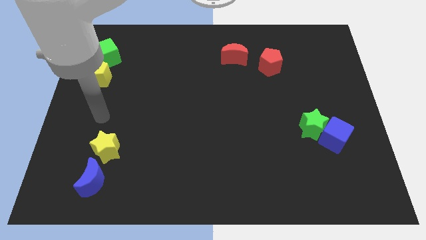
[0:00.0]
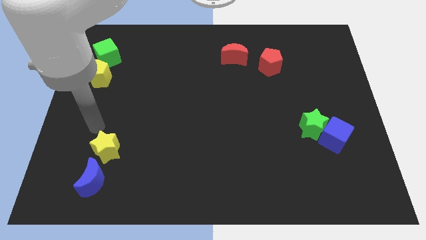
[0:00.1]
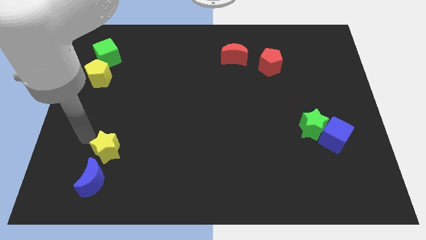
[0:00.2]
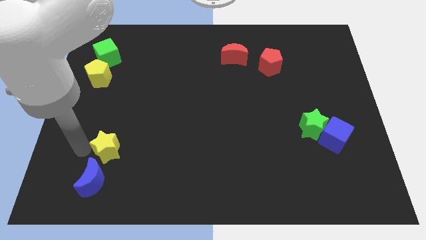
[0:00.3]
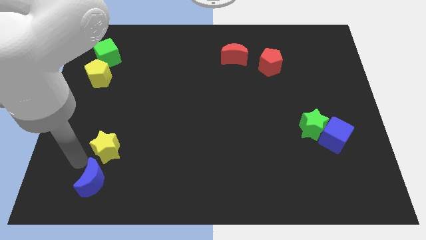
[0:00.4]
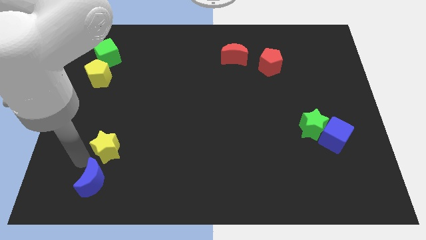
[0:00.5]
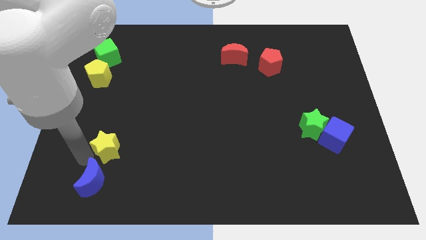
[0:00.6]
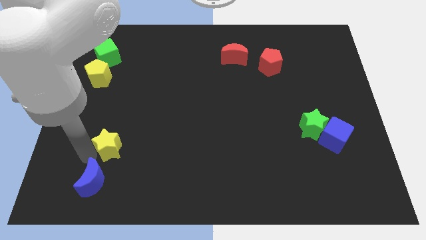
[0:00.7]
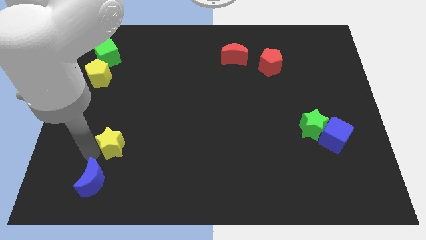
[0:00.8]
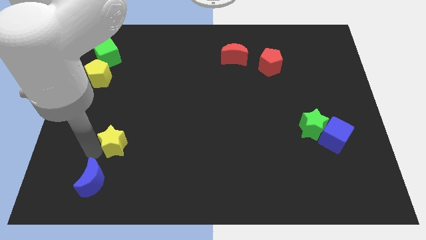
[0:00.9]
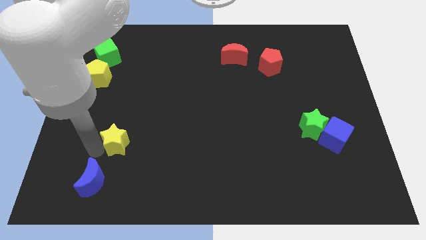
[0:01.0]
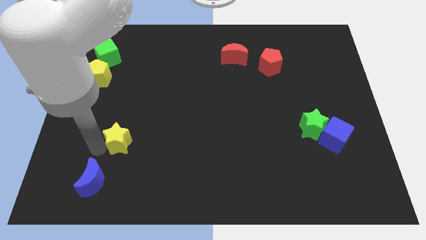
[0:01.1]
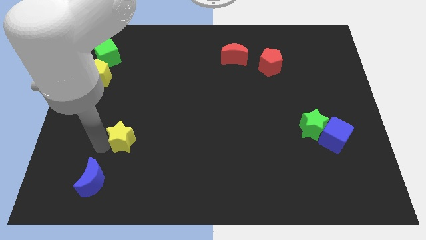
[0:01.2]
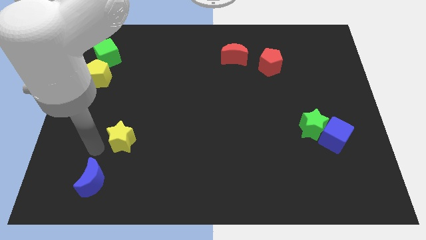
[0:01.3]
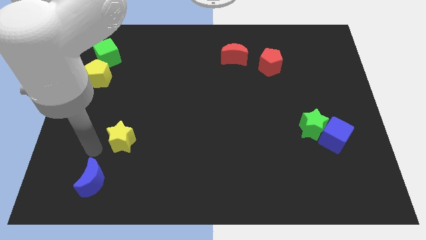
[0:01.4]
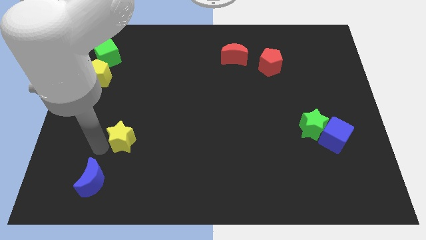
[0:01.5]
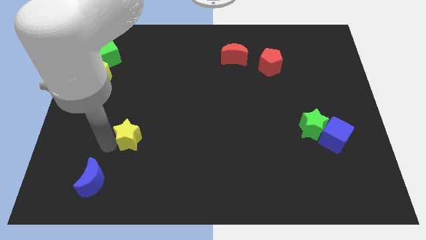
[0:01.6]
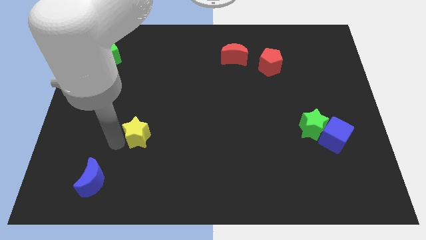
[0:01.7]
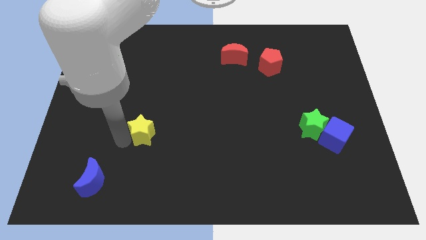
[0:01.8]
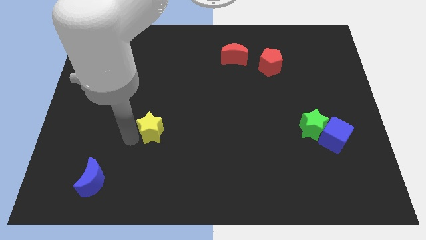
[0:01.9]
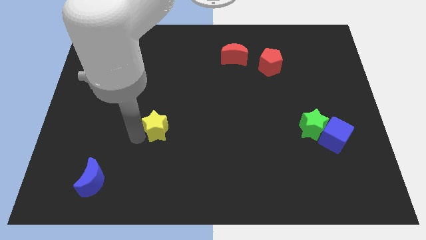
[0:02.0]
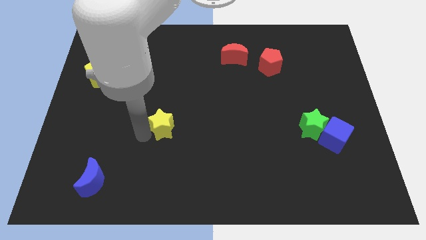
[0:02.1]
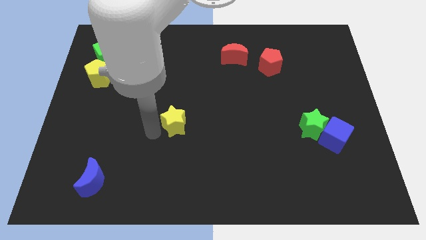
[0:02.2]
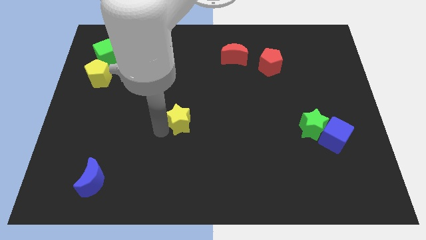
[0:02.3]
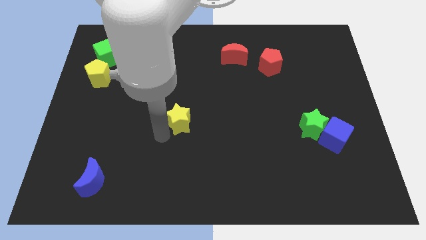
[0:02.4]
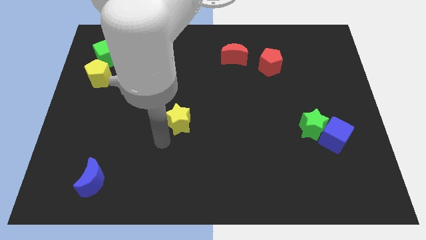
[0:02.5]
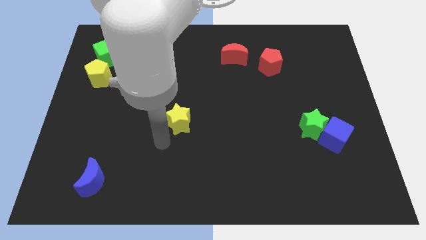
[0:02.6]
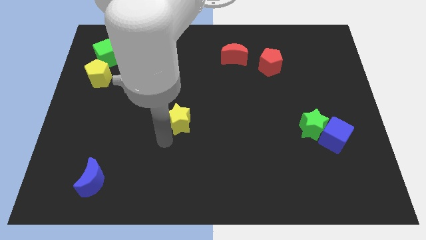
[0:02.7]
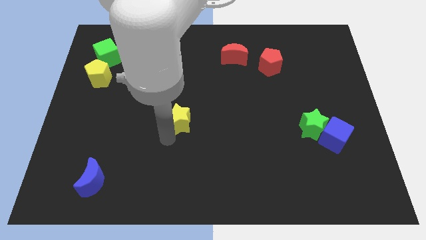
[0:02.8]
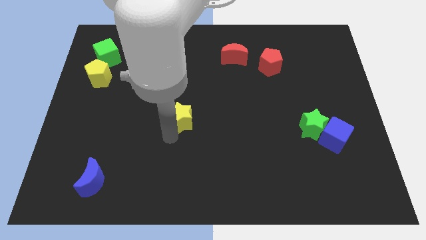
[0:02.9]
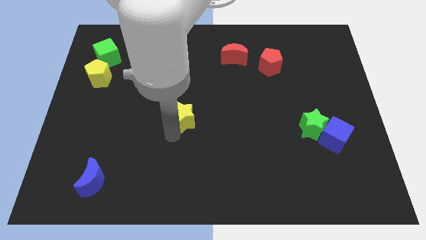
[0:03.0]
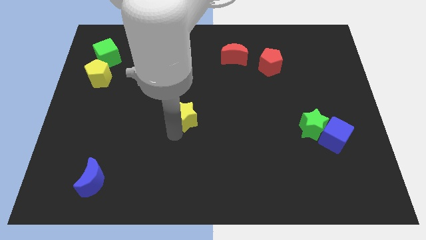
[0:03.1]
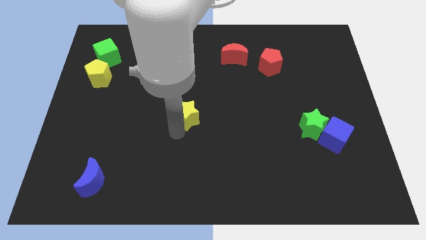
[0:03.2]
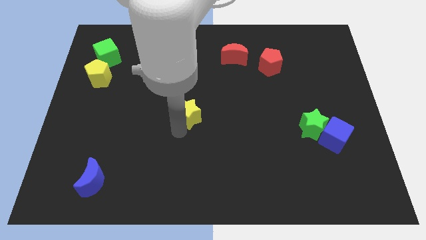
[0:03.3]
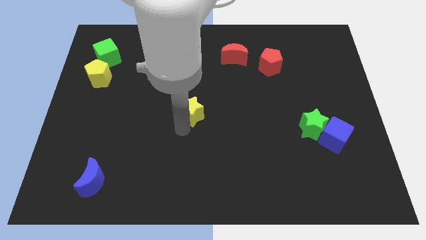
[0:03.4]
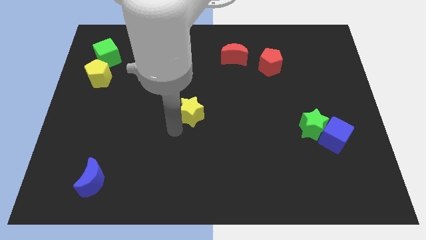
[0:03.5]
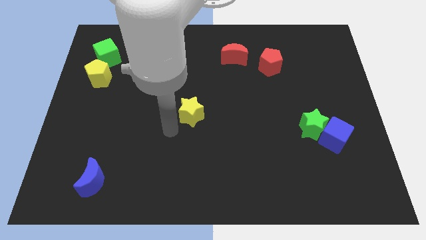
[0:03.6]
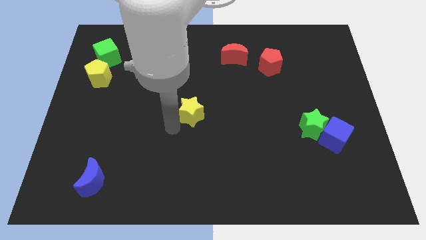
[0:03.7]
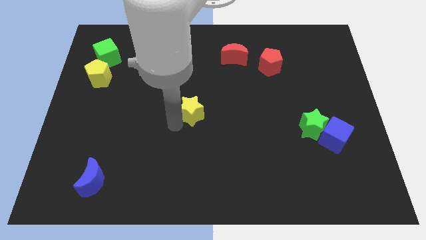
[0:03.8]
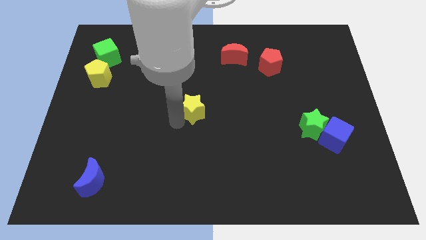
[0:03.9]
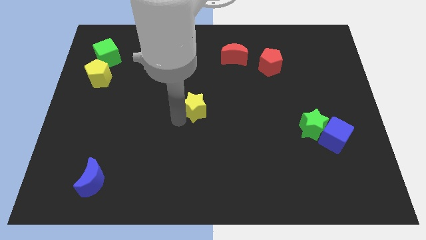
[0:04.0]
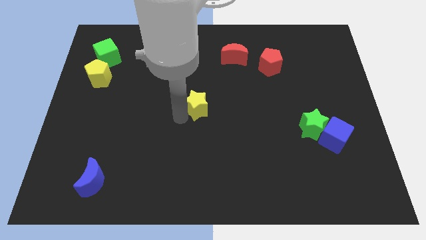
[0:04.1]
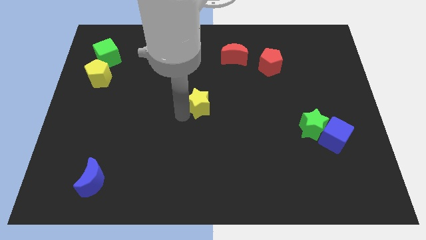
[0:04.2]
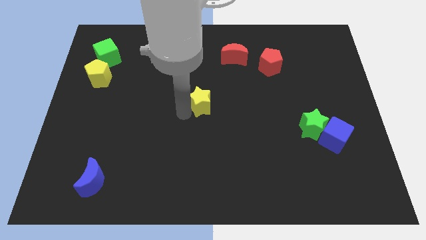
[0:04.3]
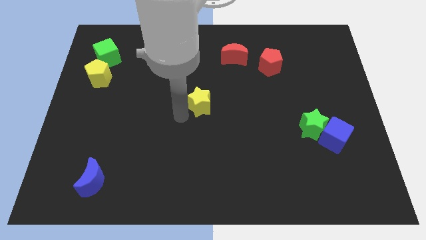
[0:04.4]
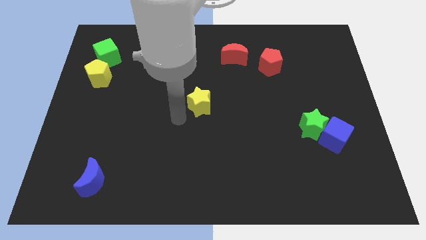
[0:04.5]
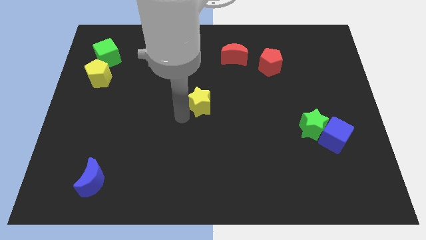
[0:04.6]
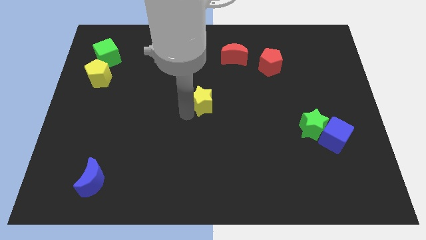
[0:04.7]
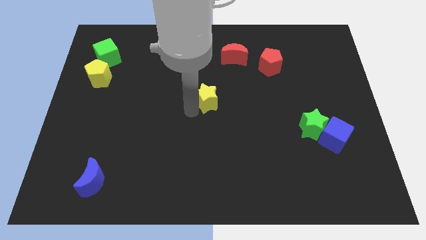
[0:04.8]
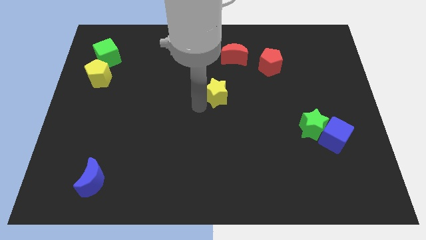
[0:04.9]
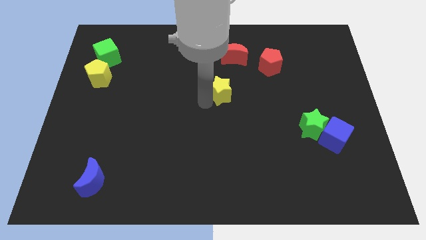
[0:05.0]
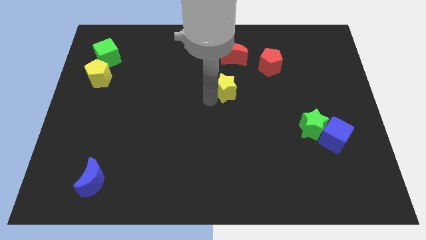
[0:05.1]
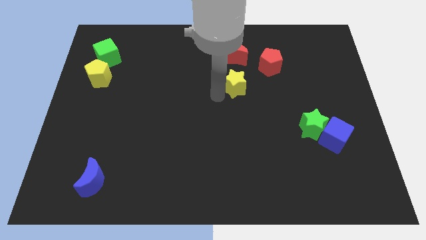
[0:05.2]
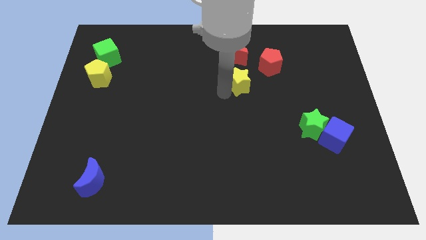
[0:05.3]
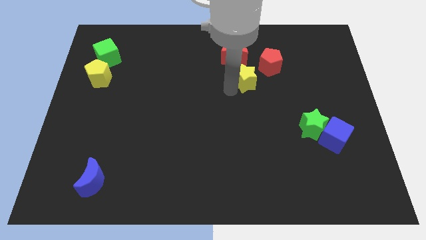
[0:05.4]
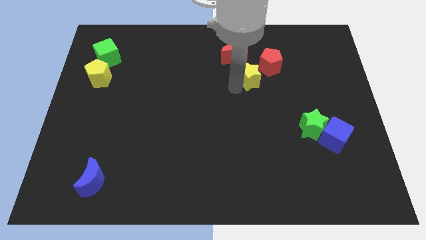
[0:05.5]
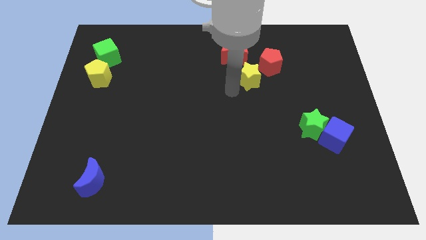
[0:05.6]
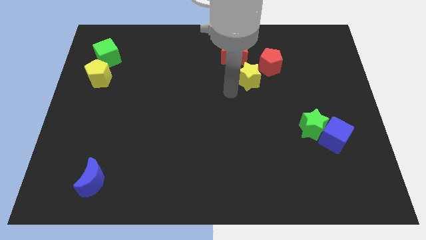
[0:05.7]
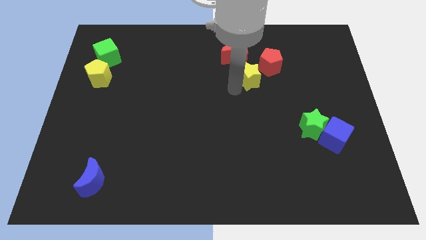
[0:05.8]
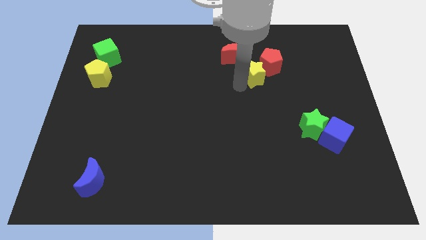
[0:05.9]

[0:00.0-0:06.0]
slide the yellow star close to the red pentagon

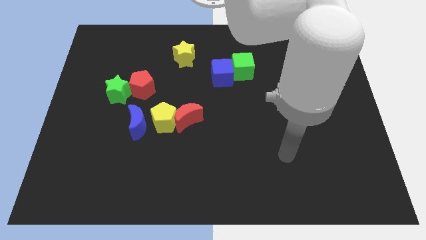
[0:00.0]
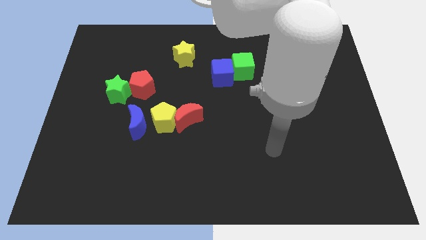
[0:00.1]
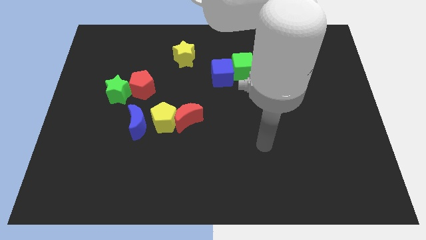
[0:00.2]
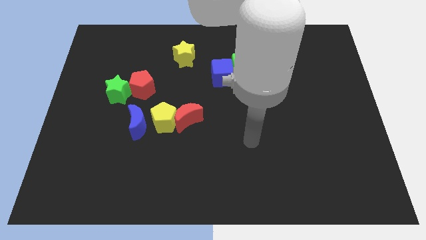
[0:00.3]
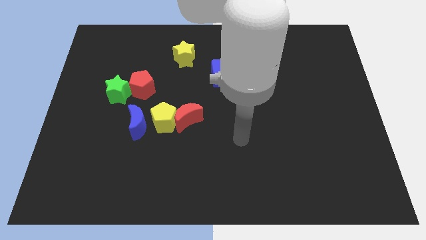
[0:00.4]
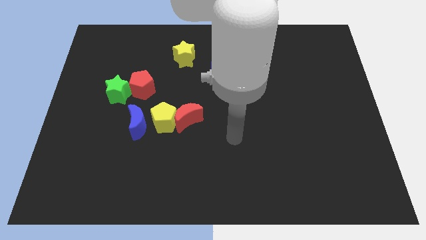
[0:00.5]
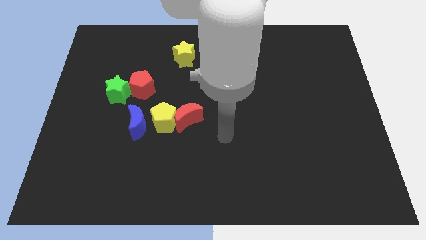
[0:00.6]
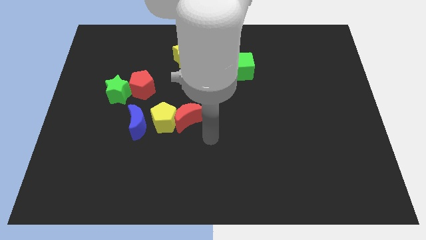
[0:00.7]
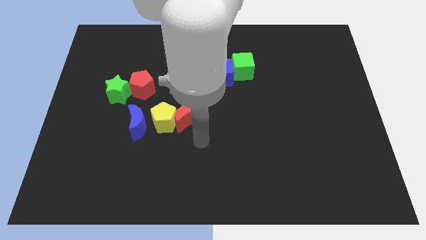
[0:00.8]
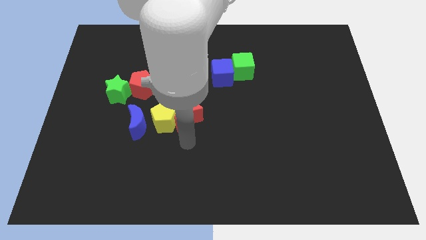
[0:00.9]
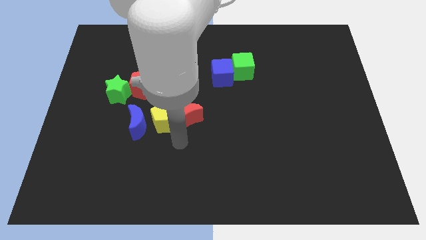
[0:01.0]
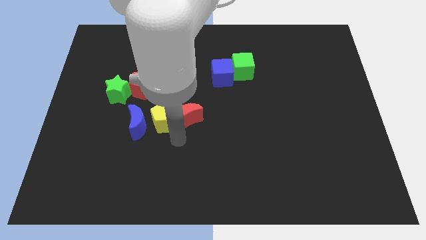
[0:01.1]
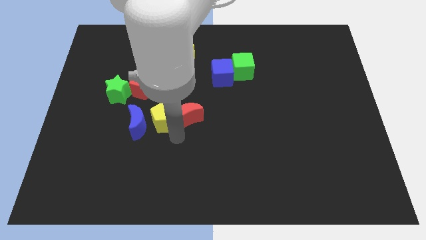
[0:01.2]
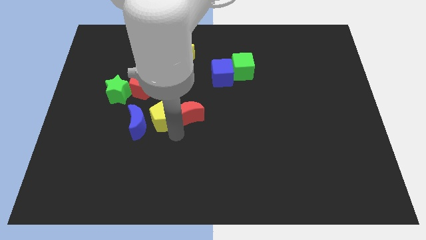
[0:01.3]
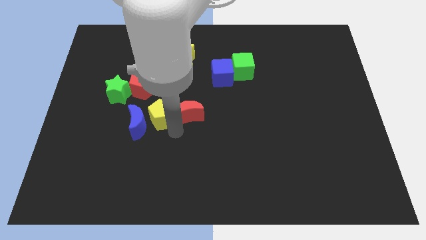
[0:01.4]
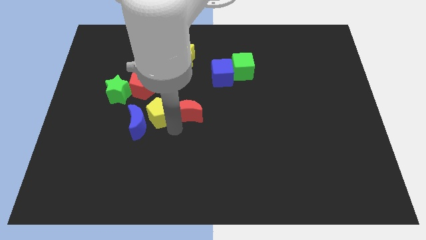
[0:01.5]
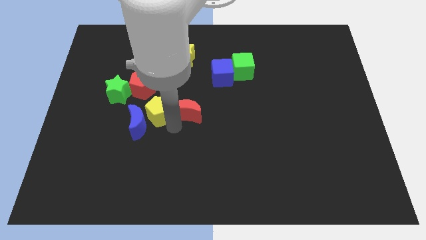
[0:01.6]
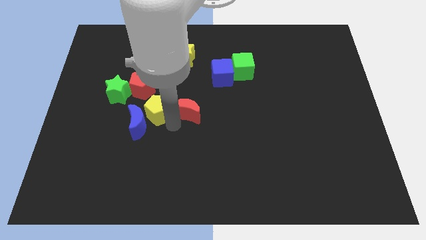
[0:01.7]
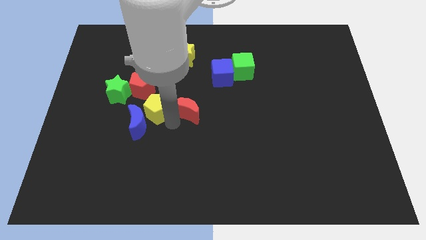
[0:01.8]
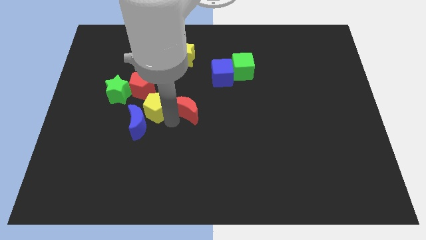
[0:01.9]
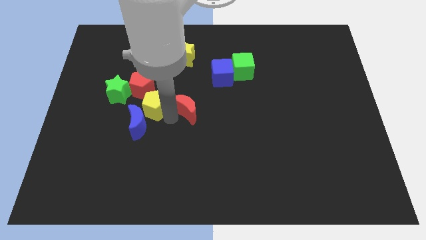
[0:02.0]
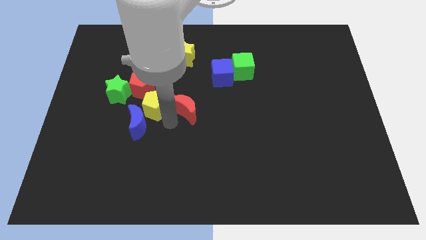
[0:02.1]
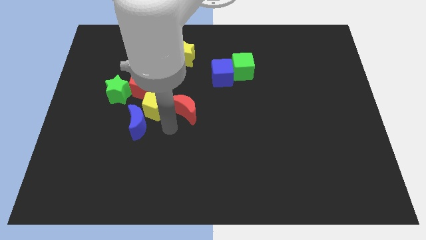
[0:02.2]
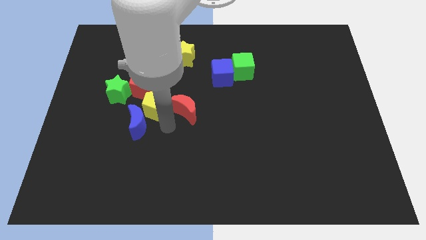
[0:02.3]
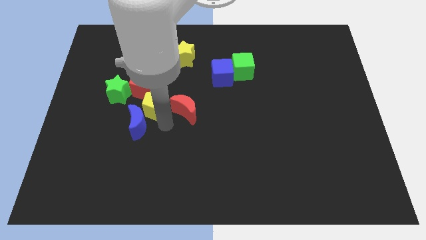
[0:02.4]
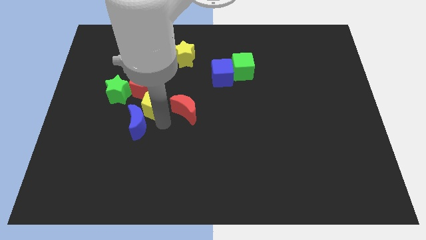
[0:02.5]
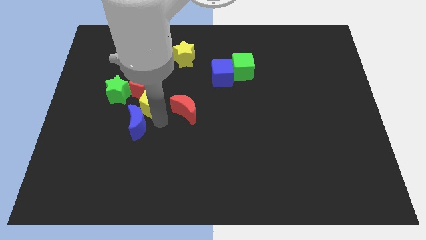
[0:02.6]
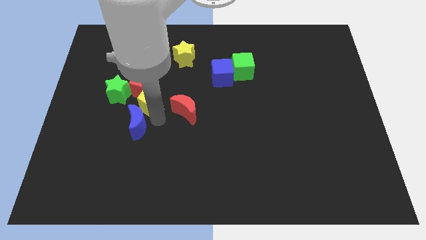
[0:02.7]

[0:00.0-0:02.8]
move the yellow pentagon to the red pentagon
